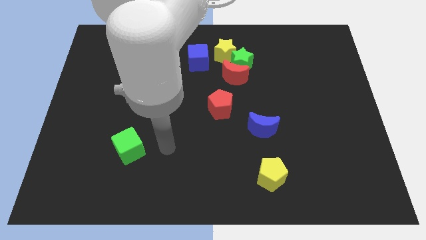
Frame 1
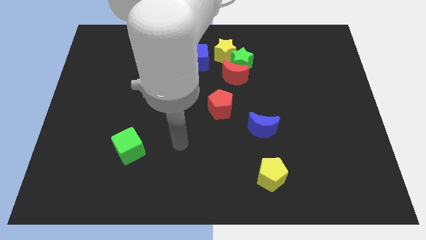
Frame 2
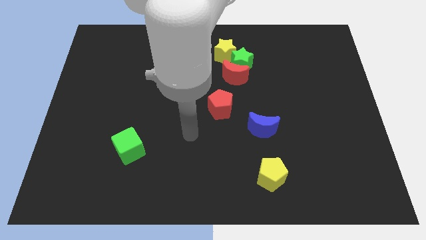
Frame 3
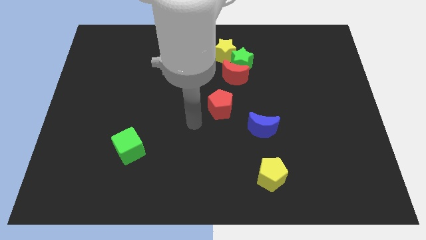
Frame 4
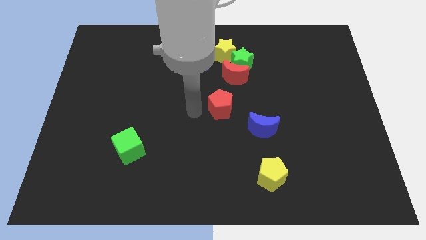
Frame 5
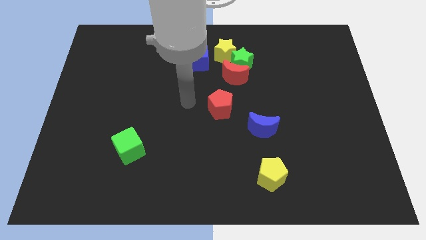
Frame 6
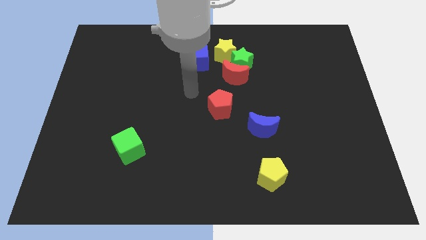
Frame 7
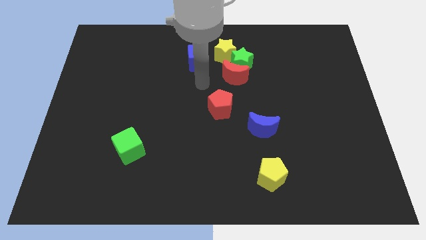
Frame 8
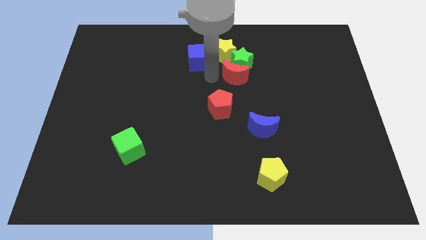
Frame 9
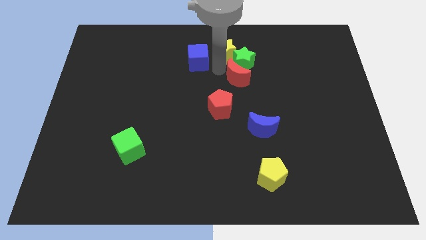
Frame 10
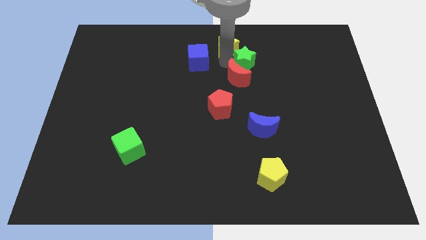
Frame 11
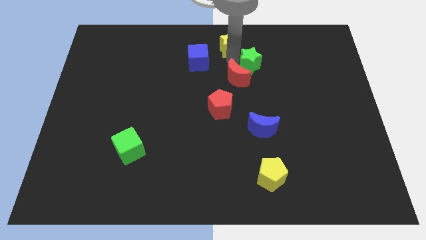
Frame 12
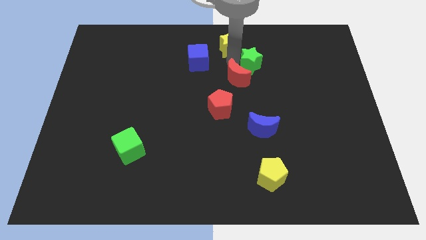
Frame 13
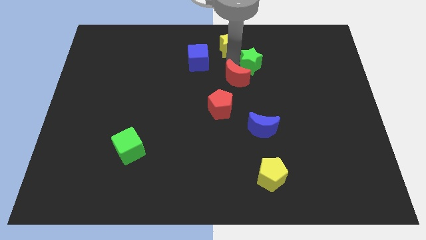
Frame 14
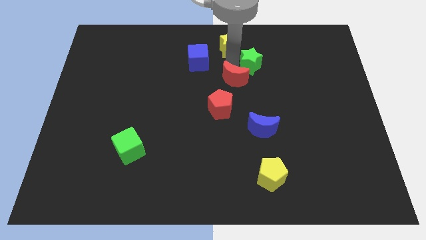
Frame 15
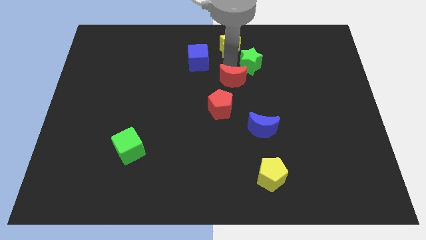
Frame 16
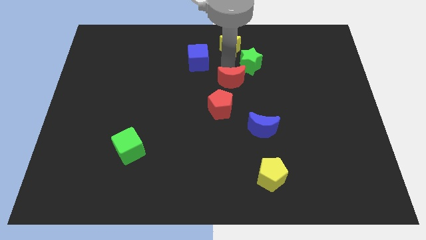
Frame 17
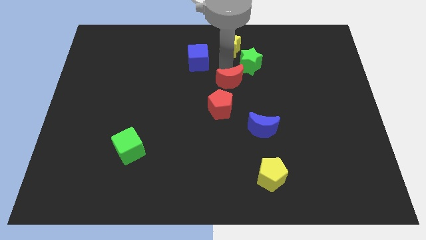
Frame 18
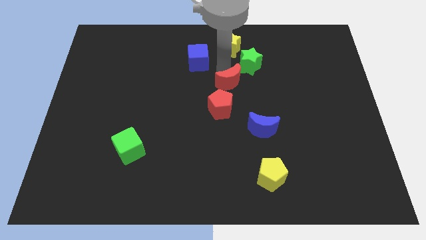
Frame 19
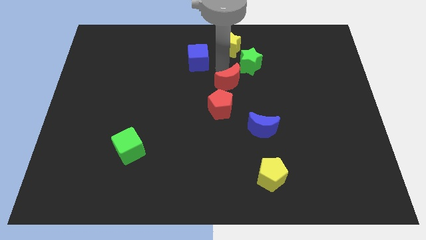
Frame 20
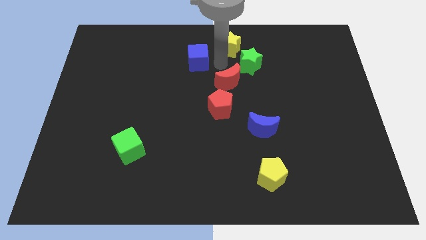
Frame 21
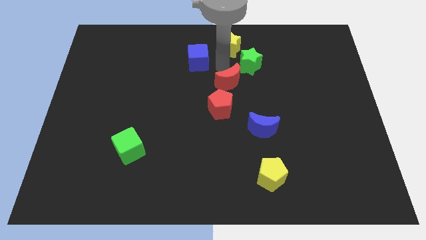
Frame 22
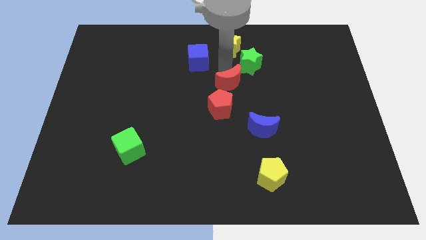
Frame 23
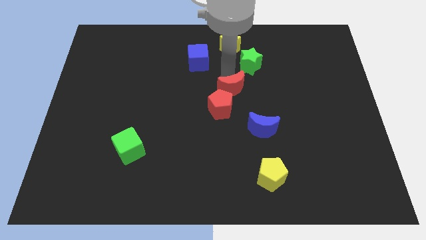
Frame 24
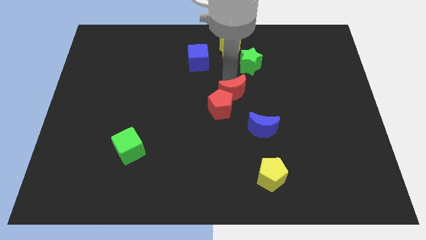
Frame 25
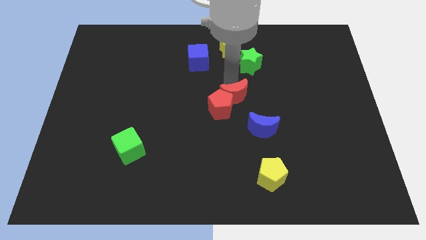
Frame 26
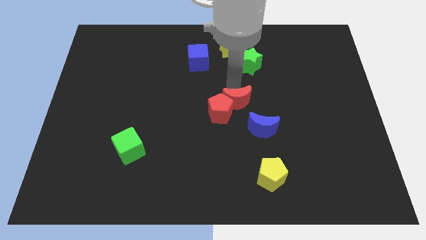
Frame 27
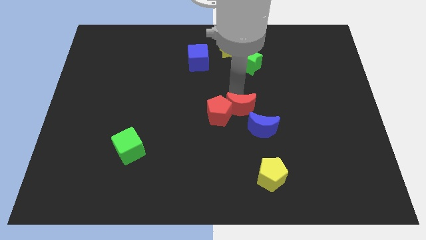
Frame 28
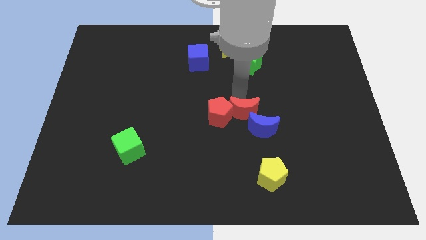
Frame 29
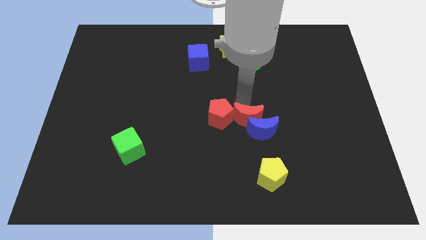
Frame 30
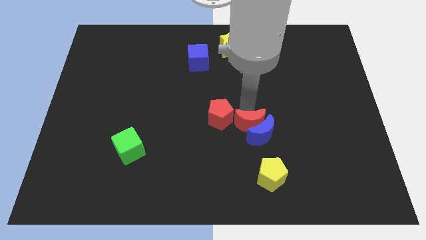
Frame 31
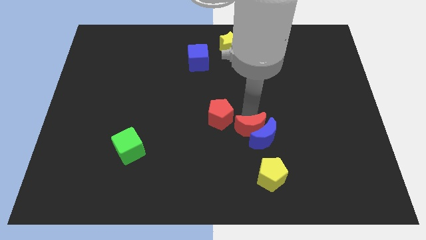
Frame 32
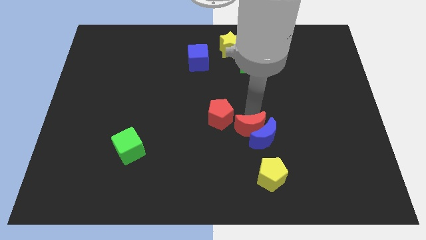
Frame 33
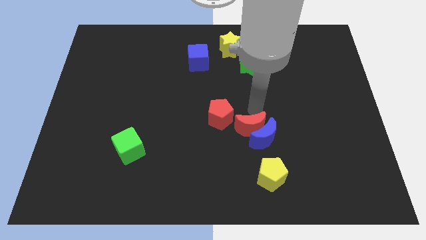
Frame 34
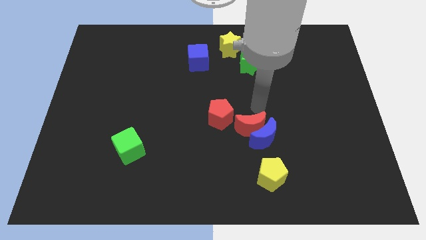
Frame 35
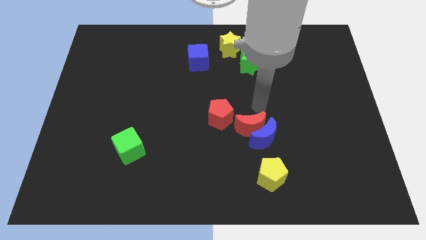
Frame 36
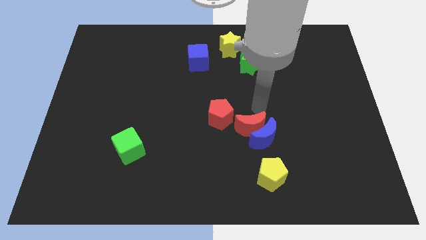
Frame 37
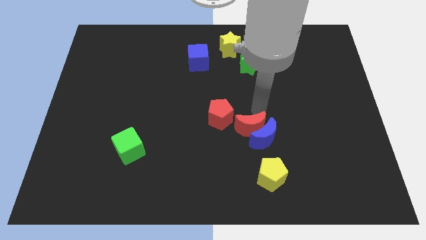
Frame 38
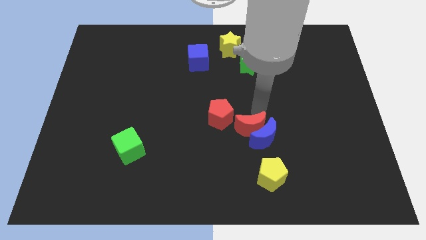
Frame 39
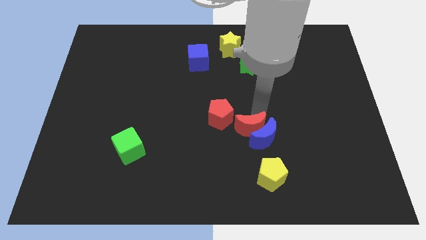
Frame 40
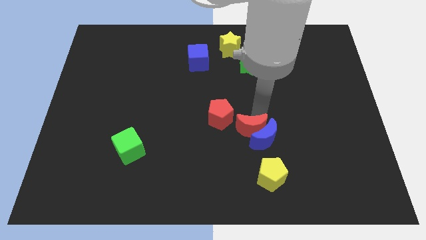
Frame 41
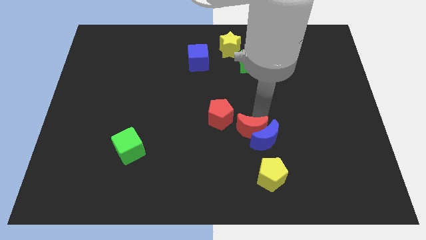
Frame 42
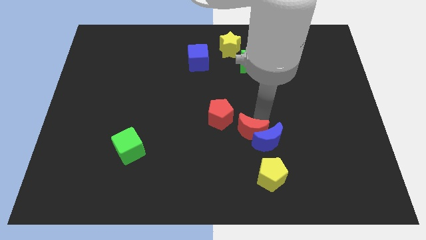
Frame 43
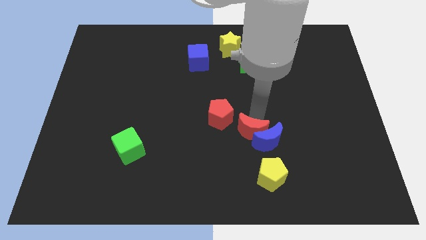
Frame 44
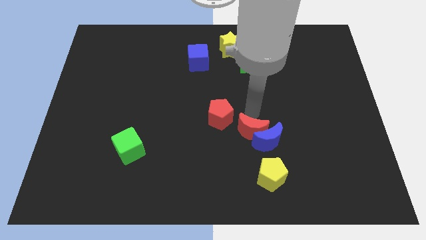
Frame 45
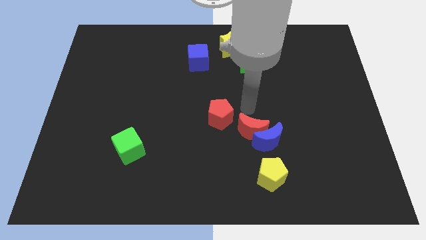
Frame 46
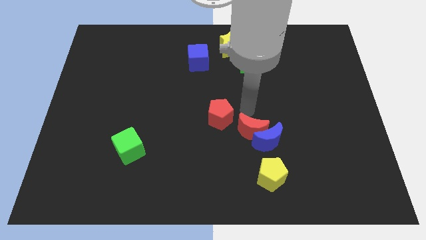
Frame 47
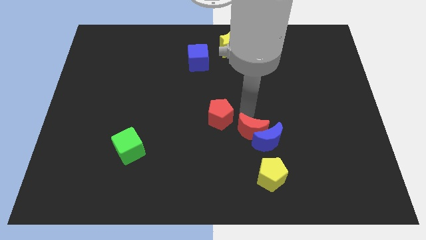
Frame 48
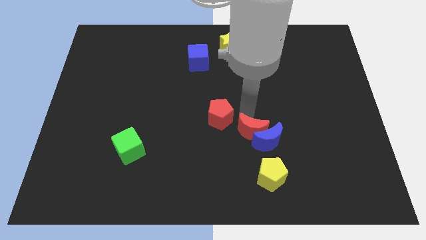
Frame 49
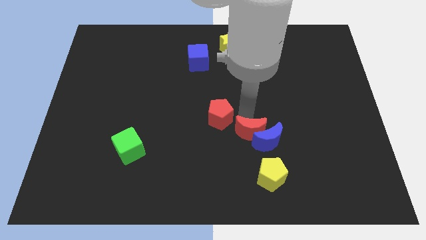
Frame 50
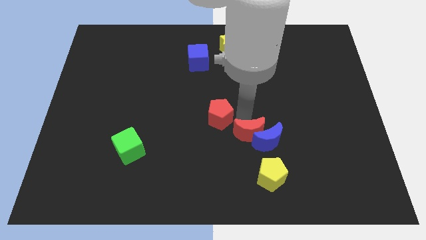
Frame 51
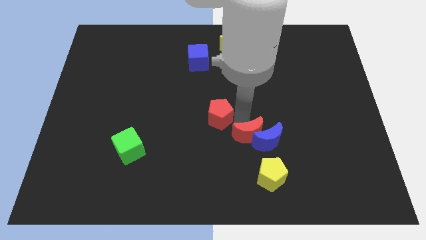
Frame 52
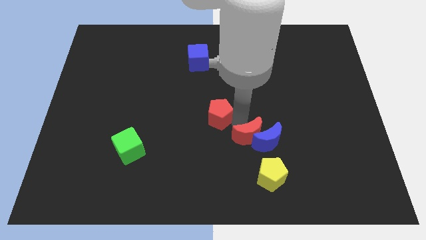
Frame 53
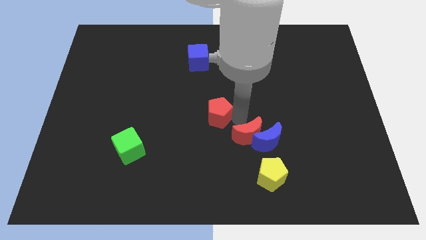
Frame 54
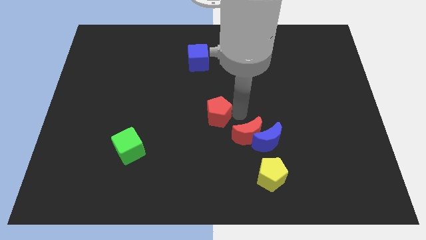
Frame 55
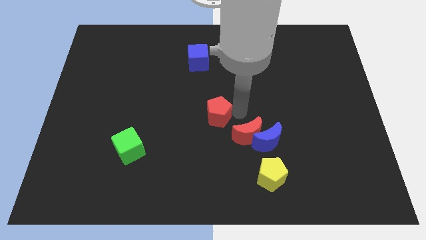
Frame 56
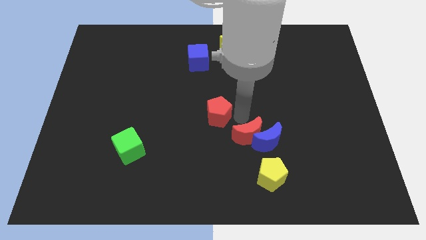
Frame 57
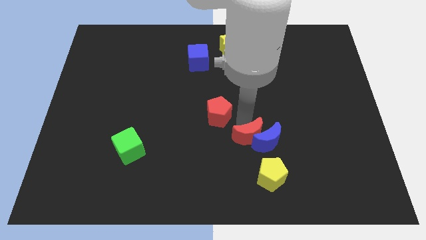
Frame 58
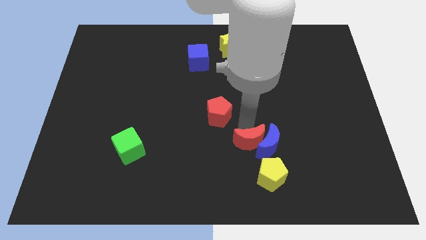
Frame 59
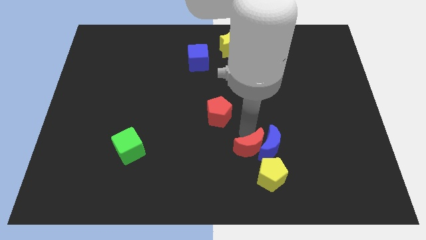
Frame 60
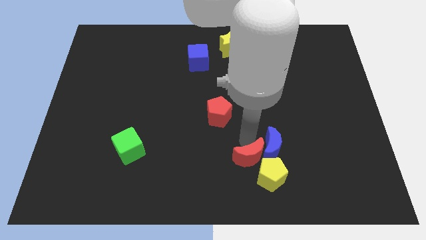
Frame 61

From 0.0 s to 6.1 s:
move the red moon to the yellow pentagon

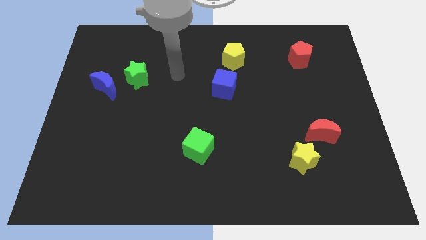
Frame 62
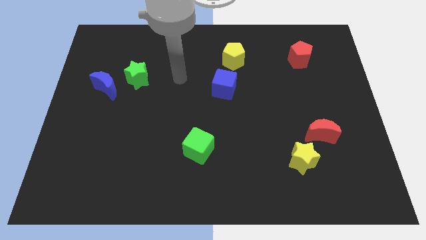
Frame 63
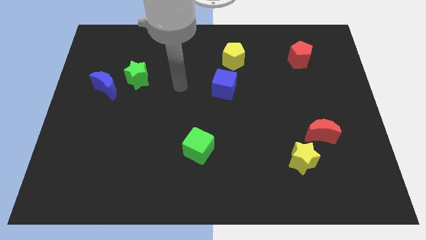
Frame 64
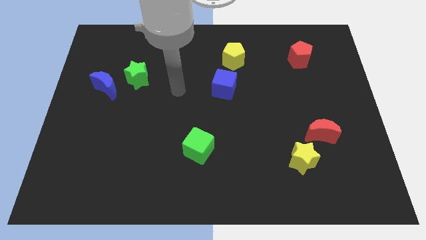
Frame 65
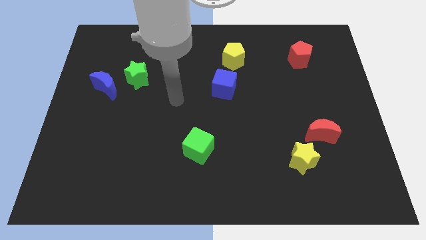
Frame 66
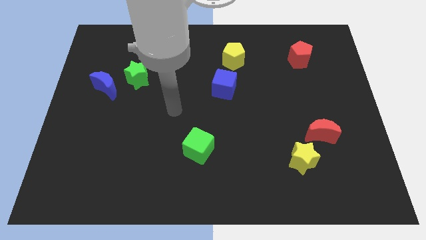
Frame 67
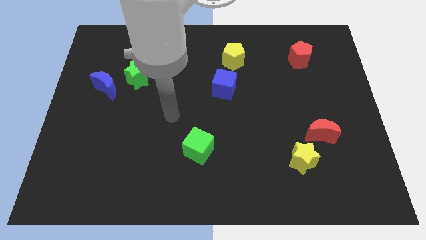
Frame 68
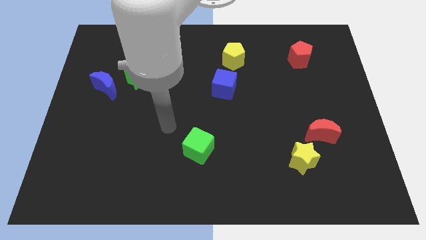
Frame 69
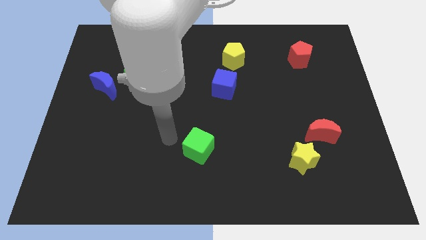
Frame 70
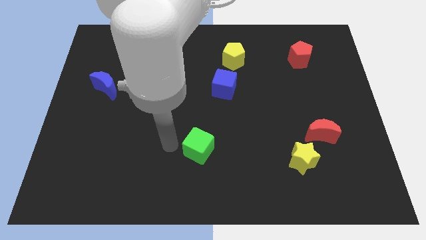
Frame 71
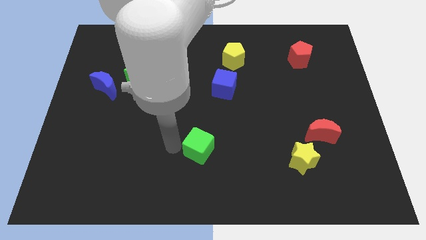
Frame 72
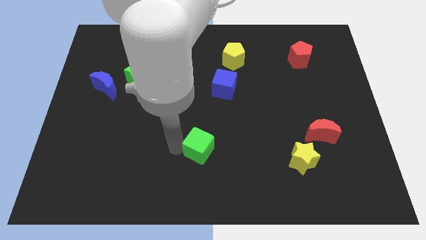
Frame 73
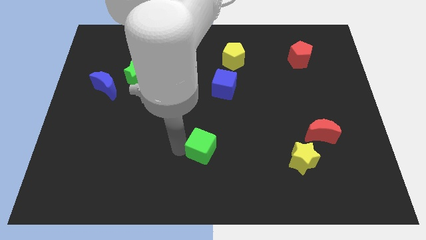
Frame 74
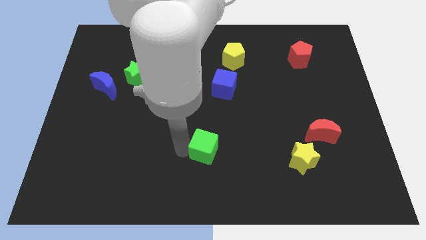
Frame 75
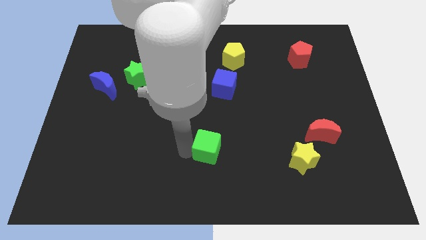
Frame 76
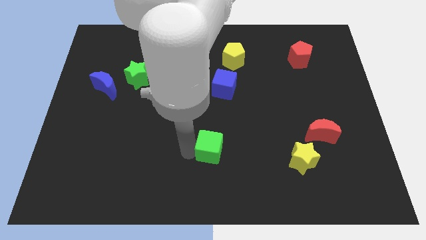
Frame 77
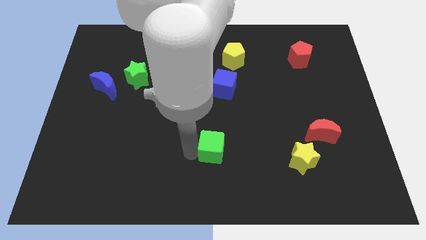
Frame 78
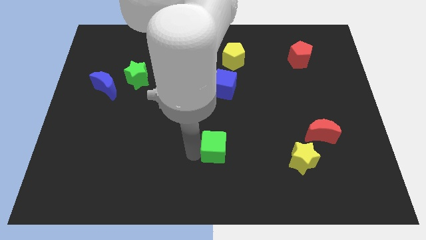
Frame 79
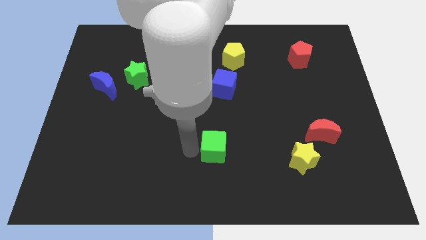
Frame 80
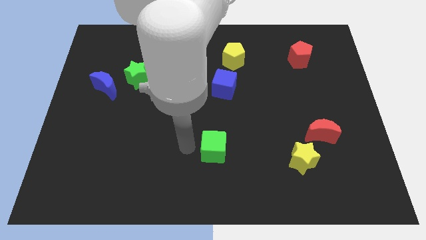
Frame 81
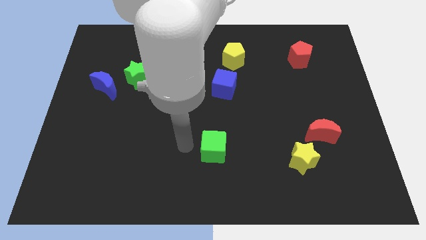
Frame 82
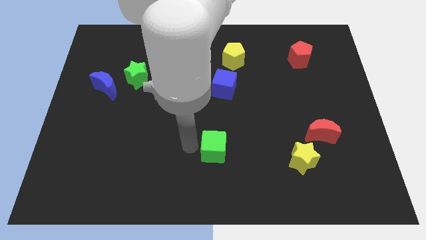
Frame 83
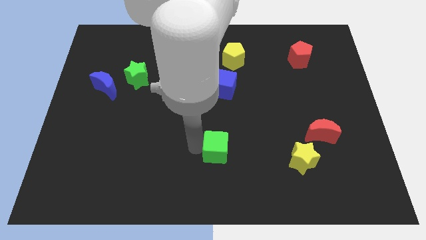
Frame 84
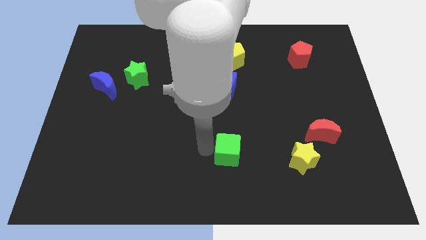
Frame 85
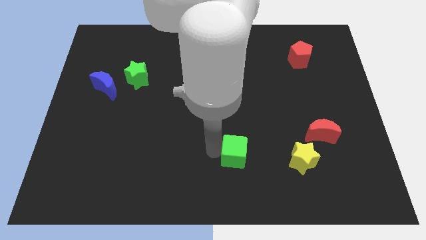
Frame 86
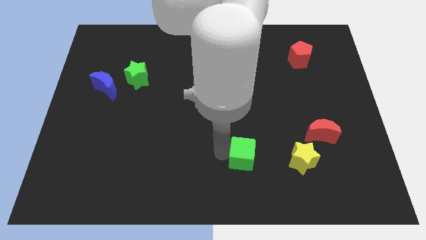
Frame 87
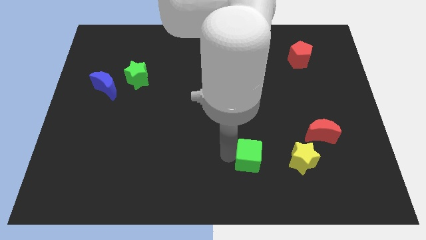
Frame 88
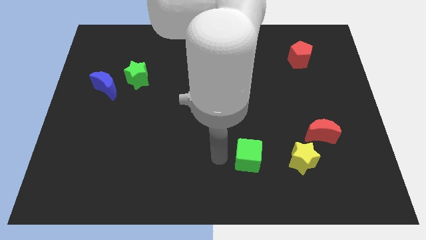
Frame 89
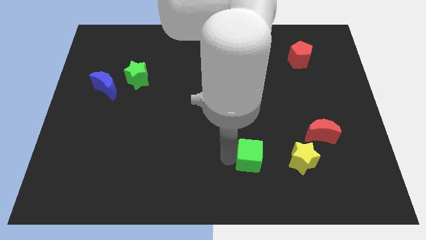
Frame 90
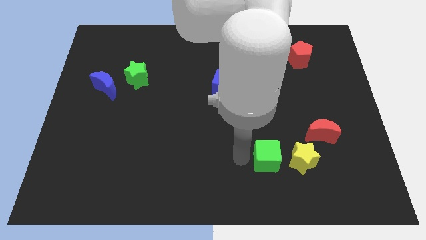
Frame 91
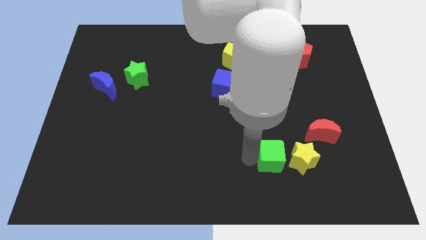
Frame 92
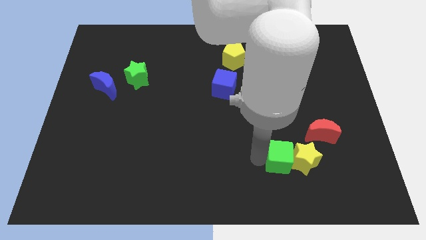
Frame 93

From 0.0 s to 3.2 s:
move the green cube towards the yellow star
